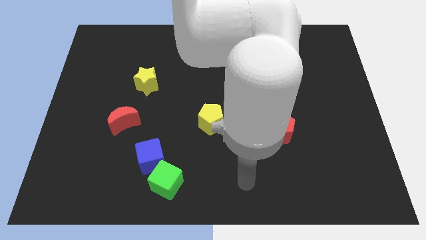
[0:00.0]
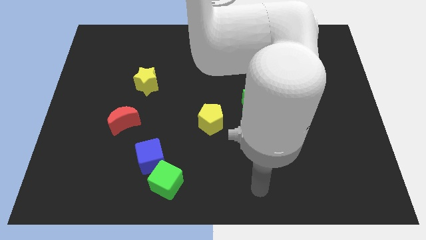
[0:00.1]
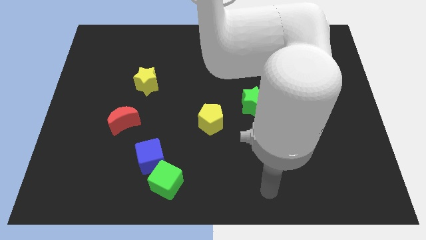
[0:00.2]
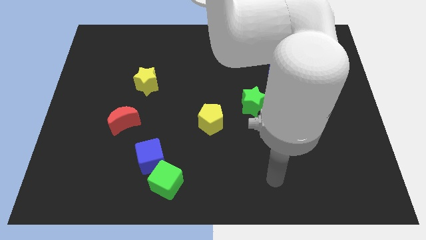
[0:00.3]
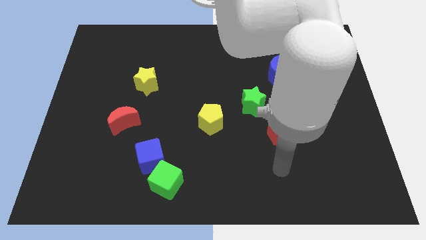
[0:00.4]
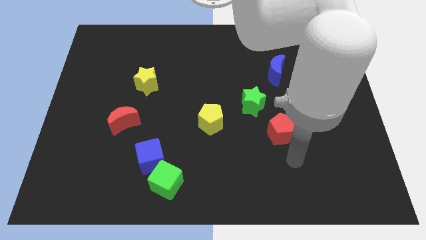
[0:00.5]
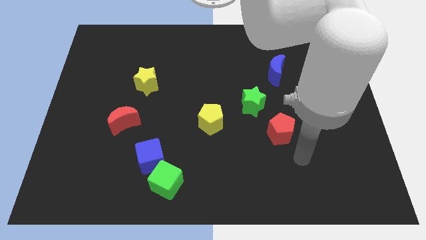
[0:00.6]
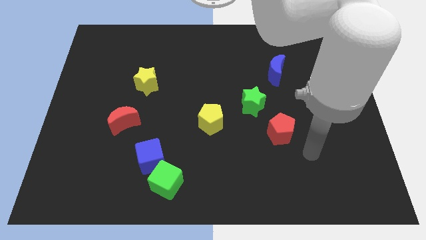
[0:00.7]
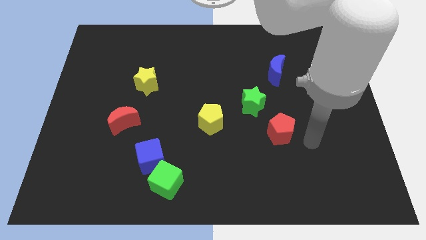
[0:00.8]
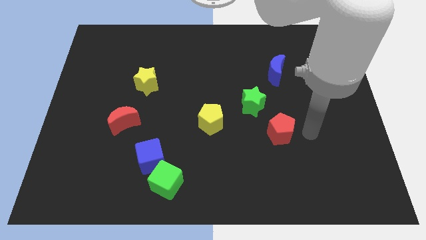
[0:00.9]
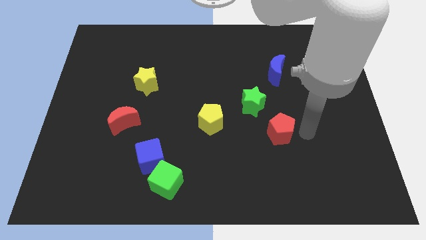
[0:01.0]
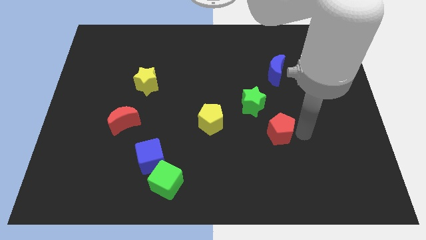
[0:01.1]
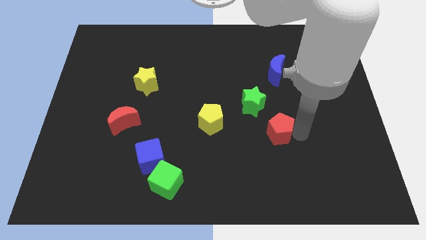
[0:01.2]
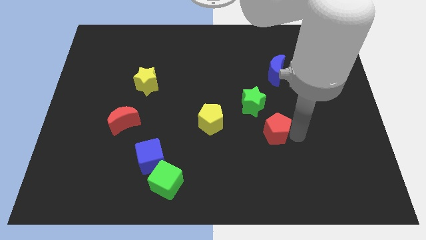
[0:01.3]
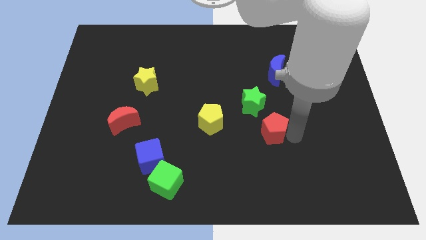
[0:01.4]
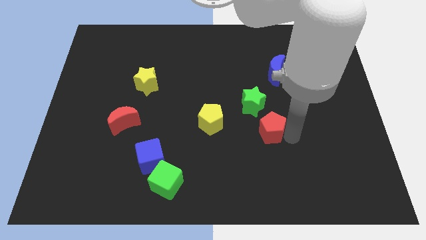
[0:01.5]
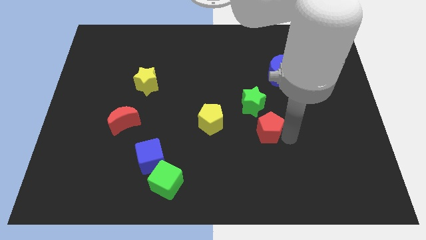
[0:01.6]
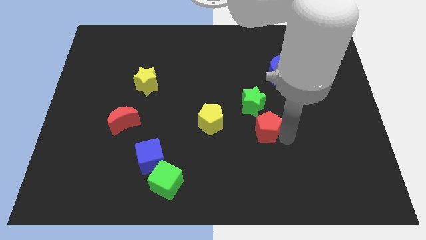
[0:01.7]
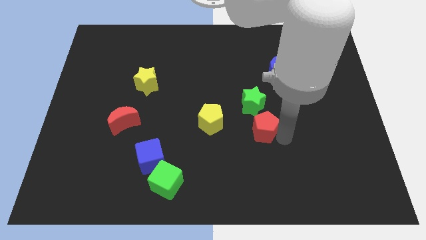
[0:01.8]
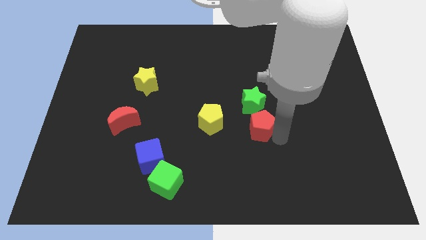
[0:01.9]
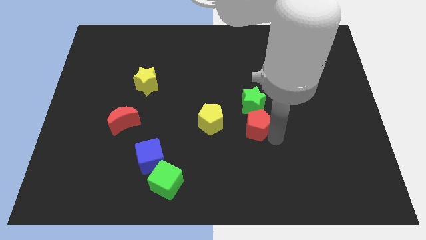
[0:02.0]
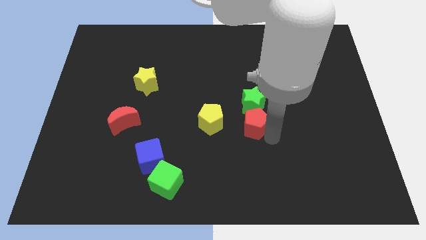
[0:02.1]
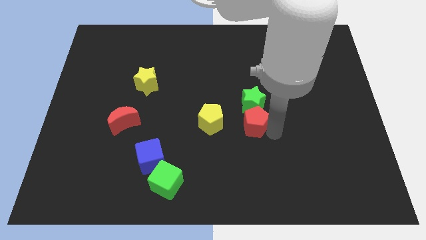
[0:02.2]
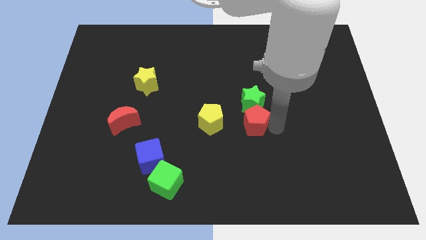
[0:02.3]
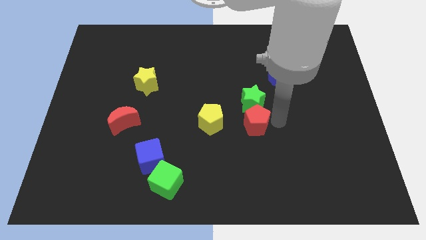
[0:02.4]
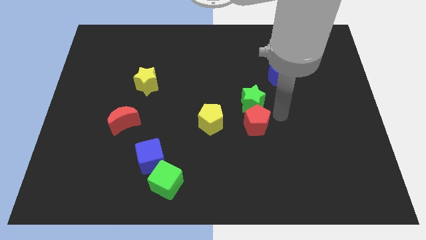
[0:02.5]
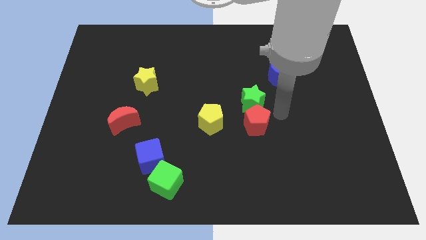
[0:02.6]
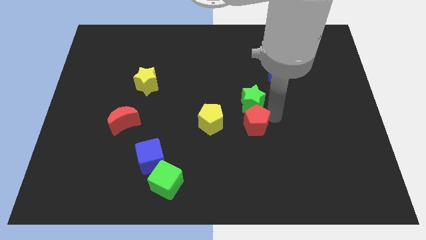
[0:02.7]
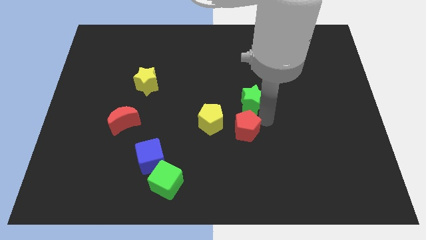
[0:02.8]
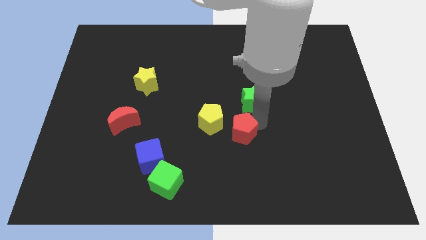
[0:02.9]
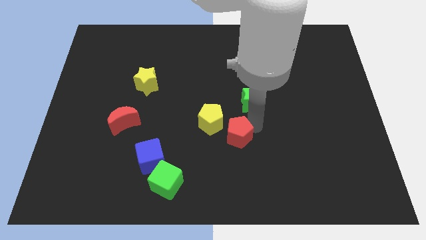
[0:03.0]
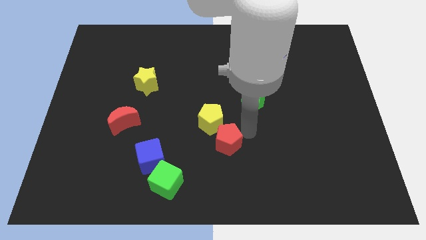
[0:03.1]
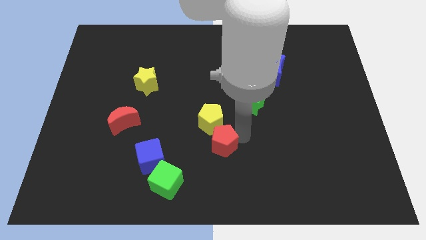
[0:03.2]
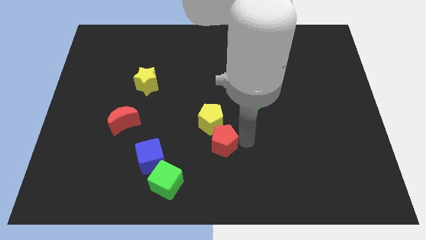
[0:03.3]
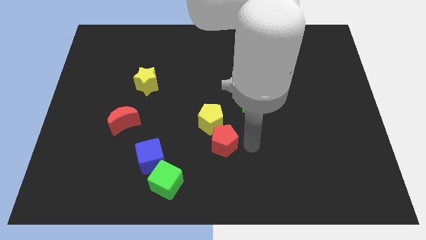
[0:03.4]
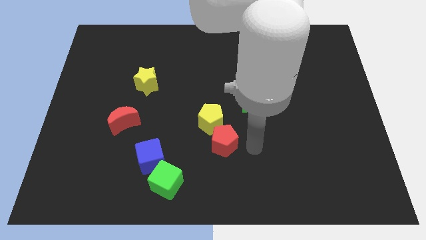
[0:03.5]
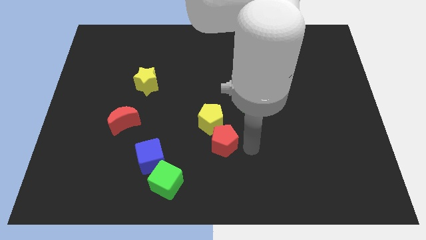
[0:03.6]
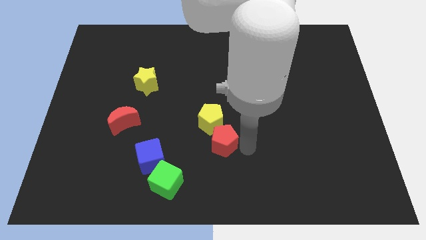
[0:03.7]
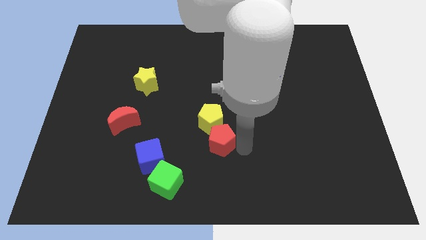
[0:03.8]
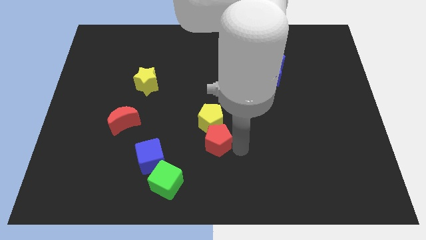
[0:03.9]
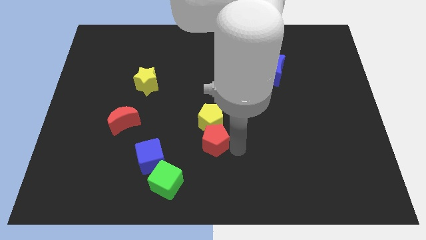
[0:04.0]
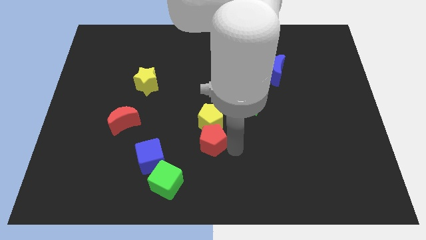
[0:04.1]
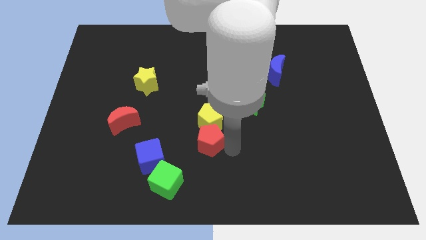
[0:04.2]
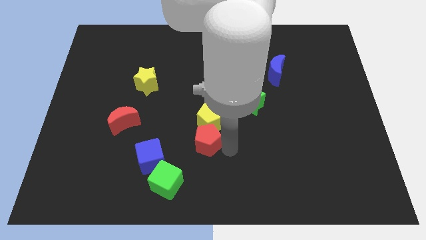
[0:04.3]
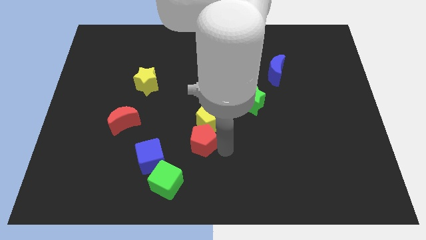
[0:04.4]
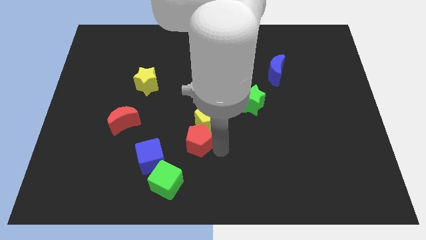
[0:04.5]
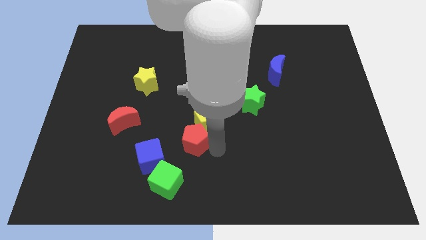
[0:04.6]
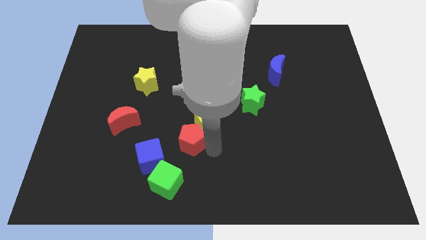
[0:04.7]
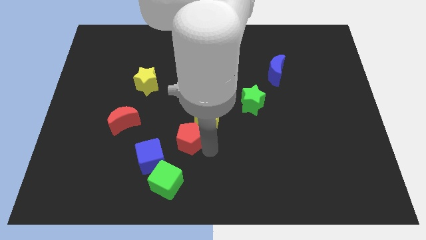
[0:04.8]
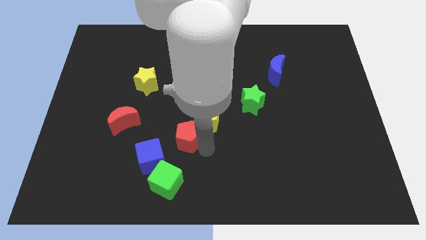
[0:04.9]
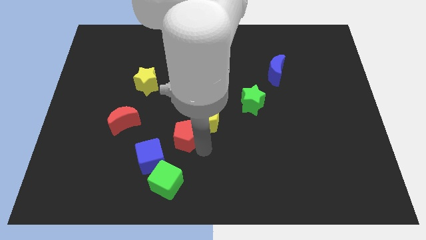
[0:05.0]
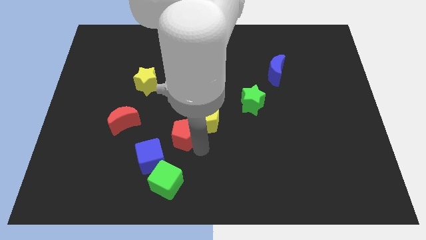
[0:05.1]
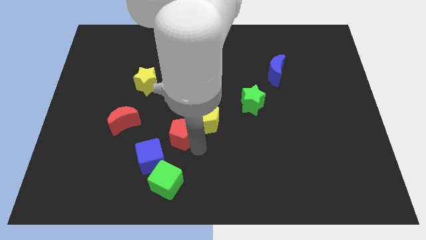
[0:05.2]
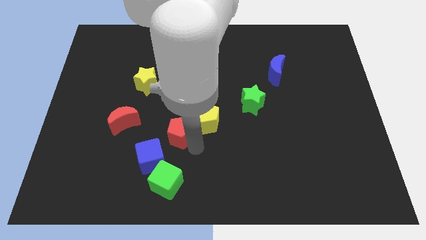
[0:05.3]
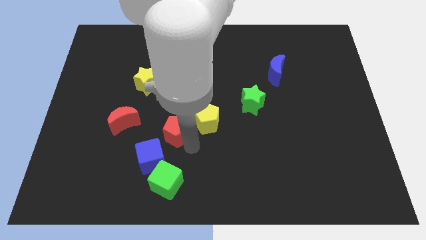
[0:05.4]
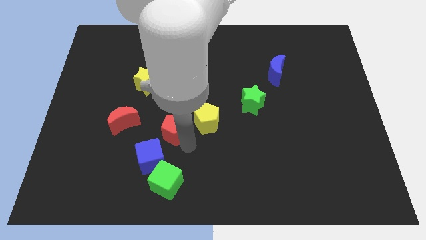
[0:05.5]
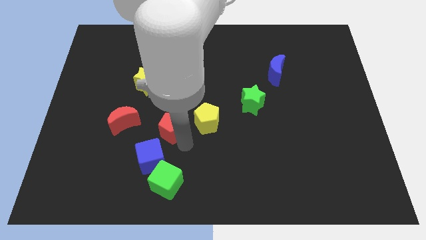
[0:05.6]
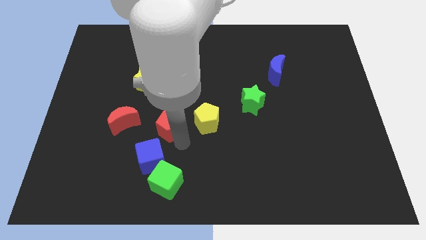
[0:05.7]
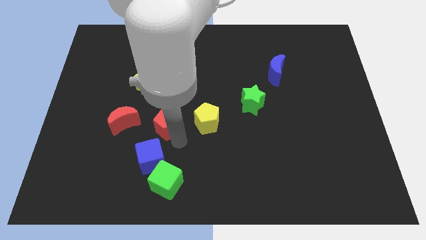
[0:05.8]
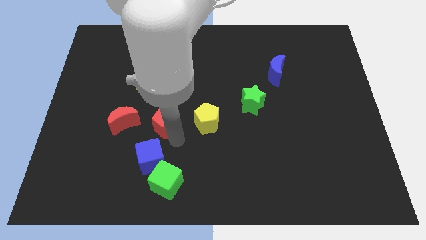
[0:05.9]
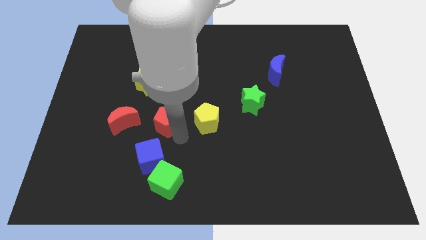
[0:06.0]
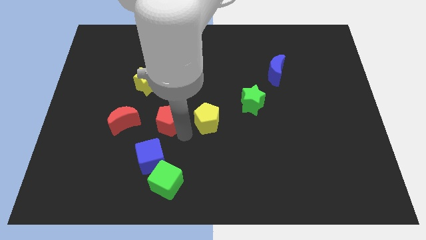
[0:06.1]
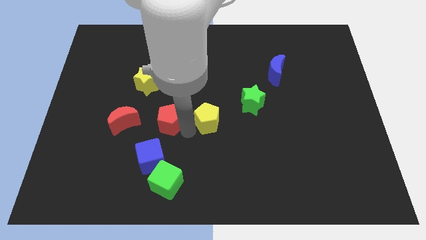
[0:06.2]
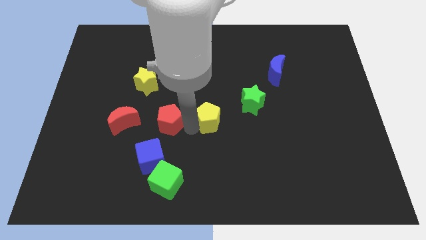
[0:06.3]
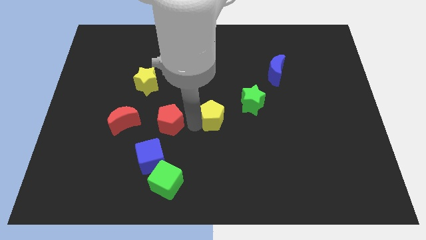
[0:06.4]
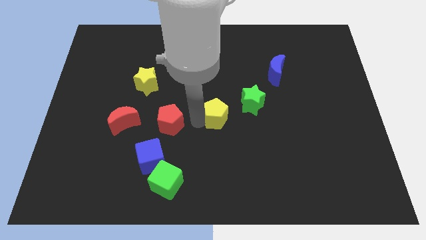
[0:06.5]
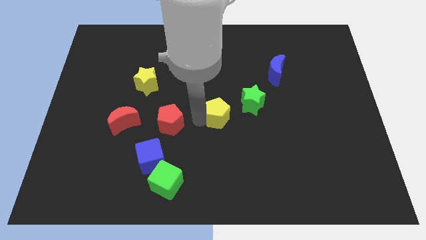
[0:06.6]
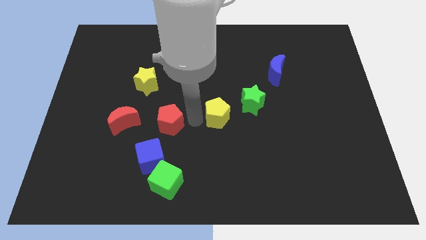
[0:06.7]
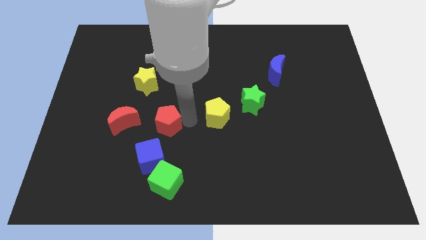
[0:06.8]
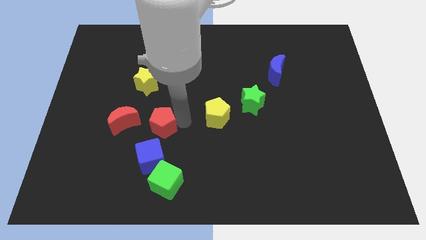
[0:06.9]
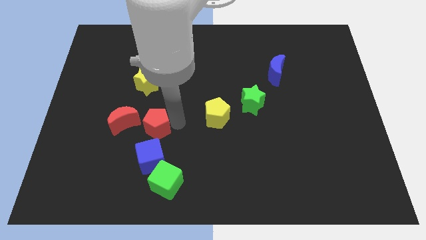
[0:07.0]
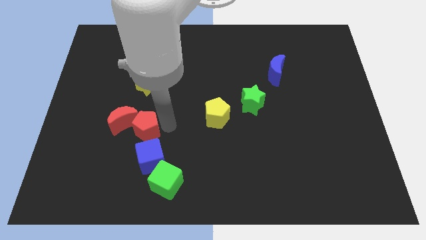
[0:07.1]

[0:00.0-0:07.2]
move the red pentagon to the red moon
